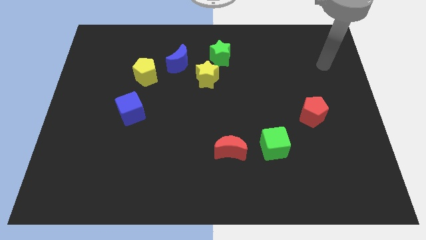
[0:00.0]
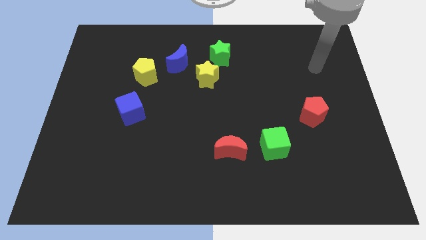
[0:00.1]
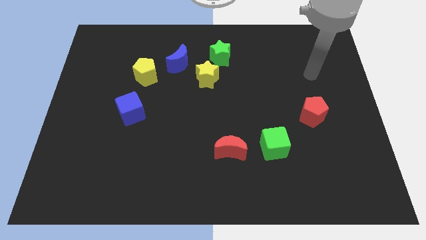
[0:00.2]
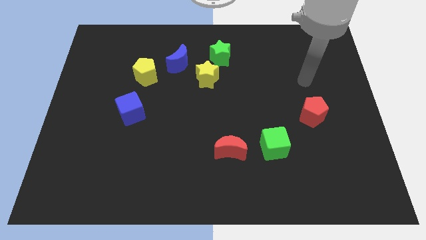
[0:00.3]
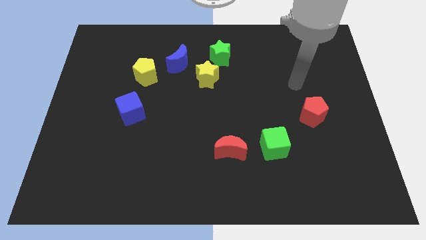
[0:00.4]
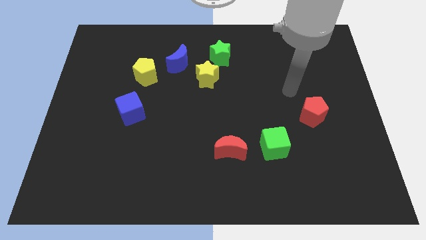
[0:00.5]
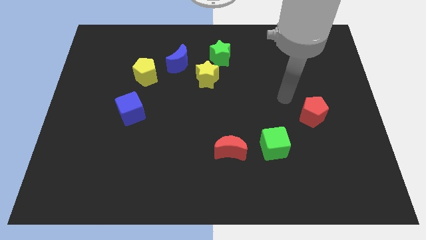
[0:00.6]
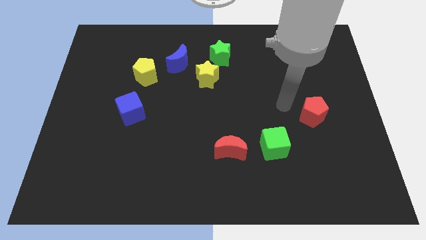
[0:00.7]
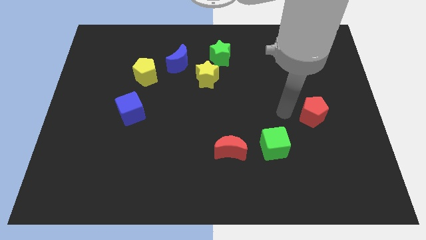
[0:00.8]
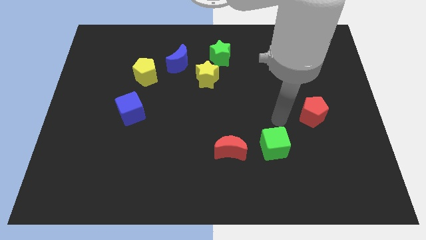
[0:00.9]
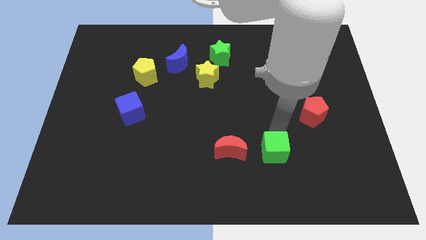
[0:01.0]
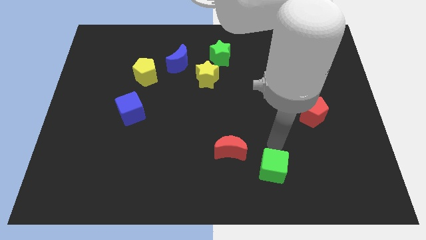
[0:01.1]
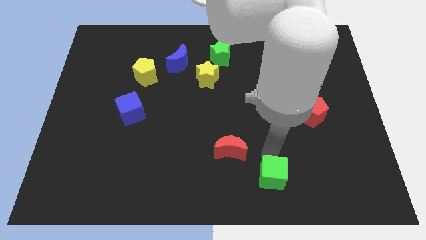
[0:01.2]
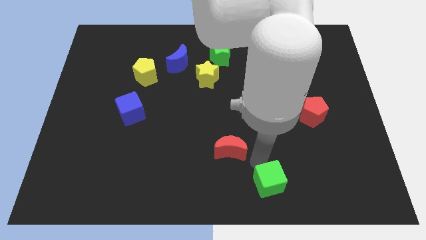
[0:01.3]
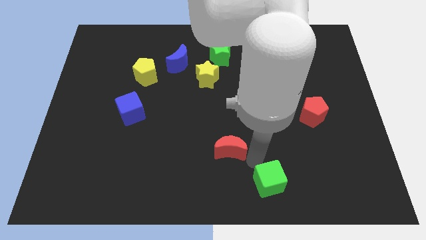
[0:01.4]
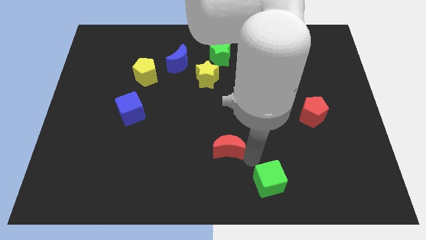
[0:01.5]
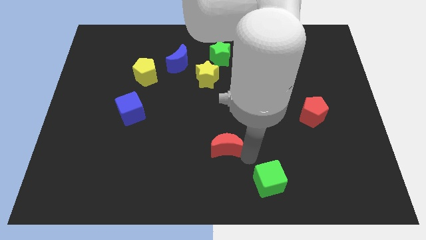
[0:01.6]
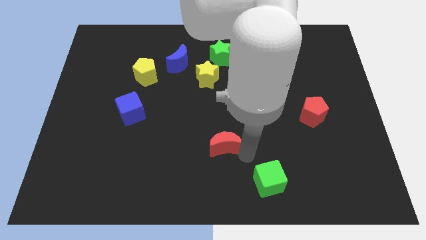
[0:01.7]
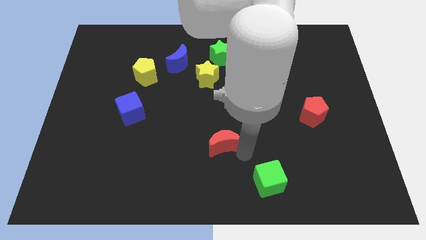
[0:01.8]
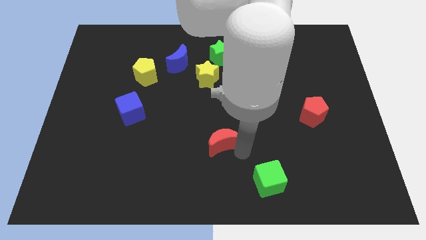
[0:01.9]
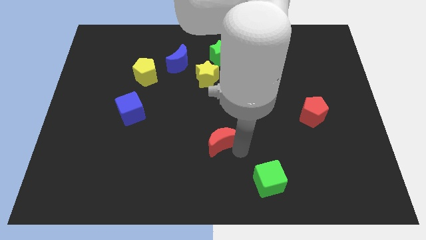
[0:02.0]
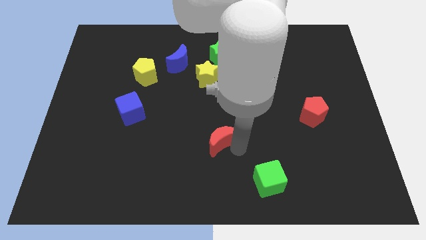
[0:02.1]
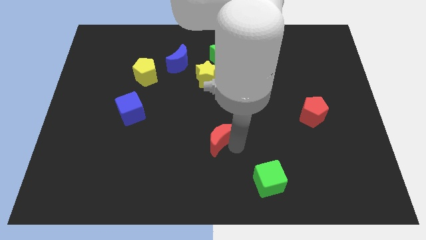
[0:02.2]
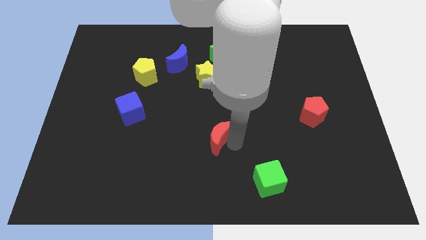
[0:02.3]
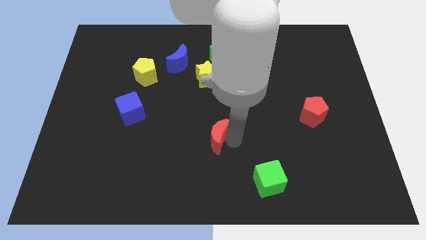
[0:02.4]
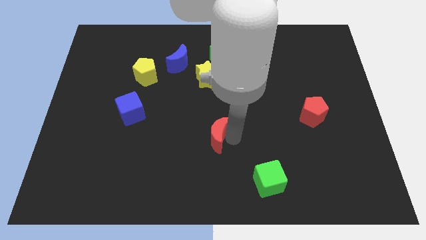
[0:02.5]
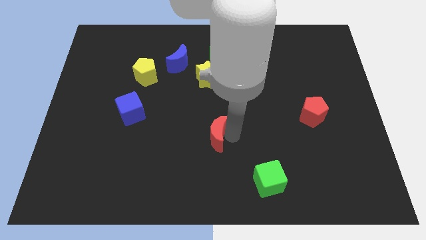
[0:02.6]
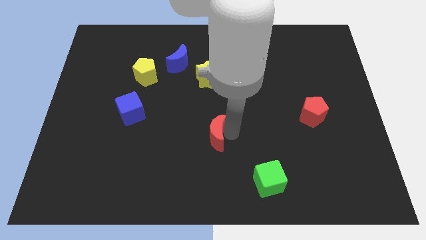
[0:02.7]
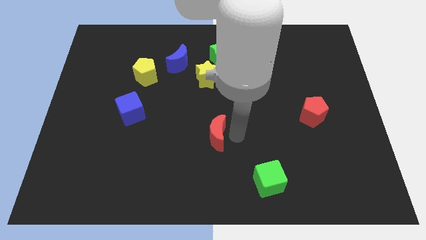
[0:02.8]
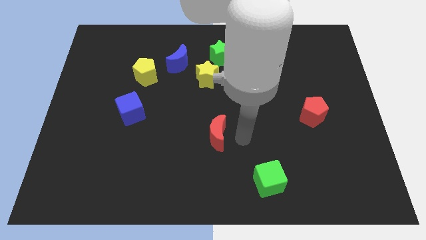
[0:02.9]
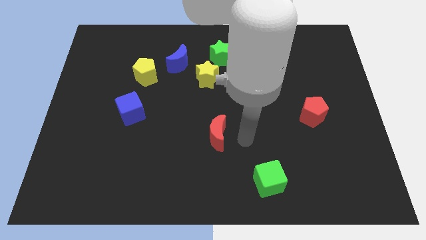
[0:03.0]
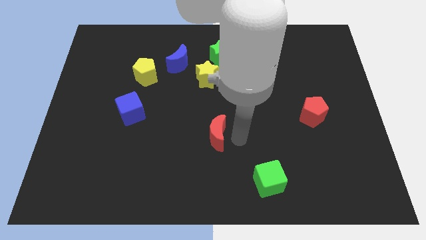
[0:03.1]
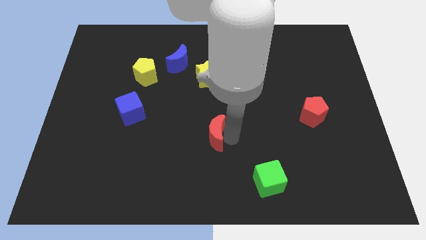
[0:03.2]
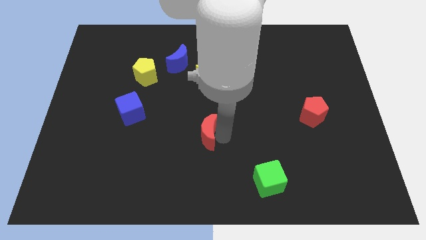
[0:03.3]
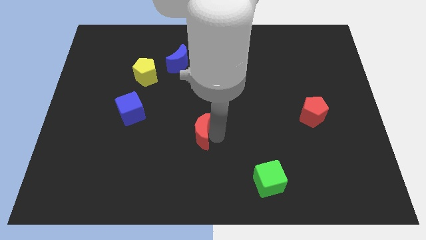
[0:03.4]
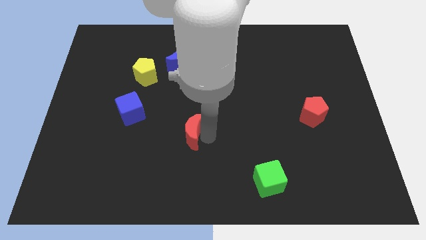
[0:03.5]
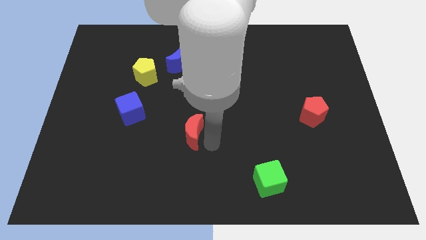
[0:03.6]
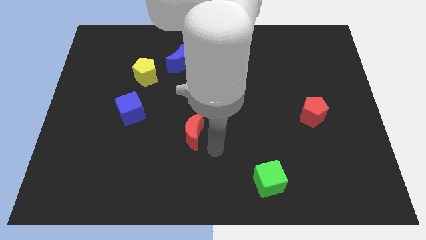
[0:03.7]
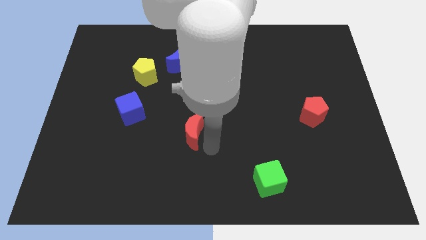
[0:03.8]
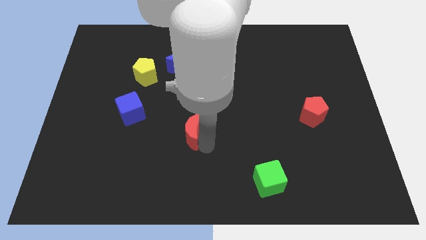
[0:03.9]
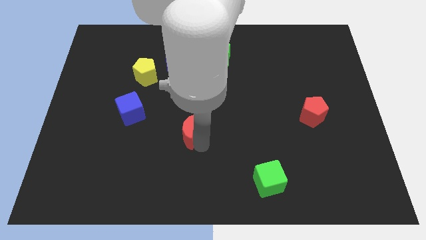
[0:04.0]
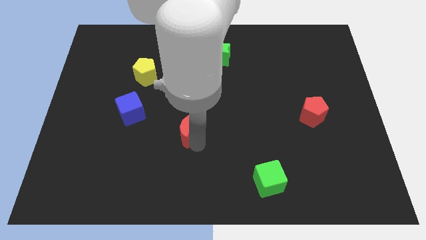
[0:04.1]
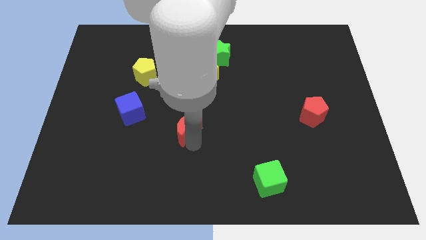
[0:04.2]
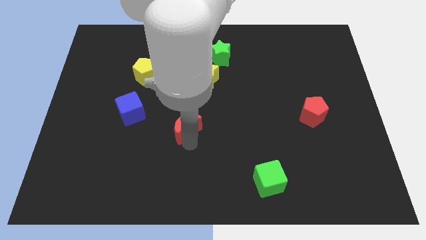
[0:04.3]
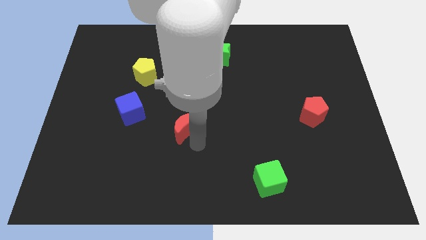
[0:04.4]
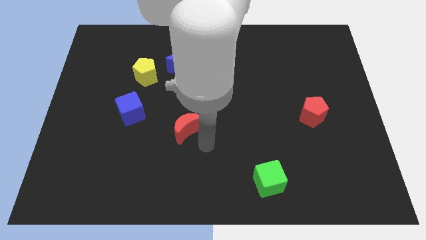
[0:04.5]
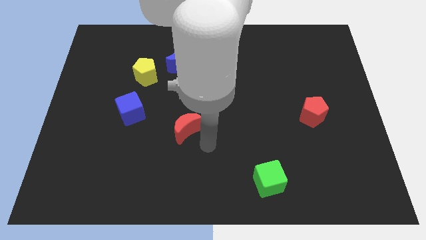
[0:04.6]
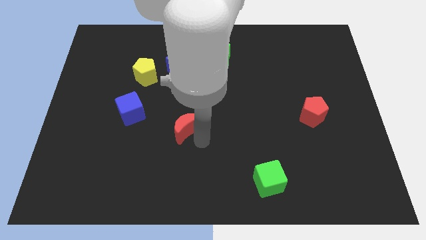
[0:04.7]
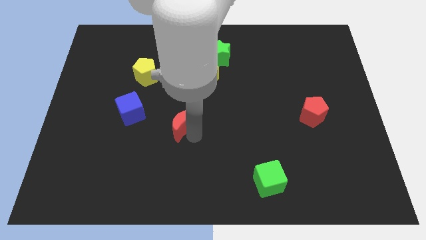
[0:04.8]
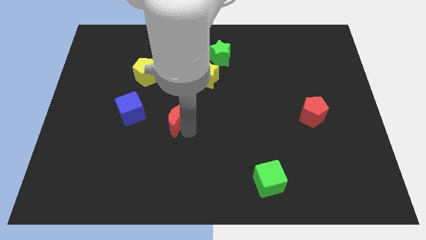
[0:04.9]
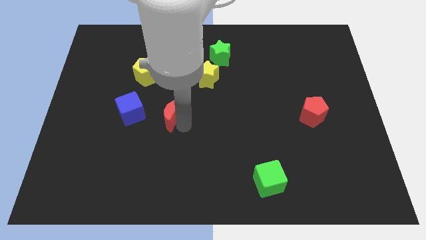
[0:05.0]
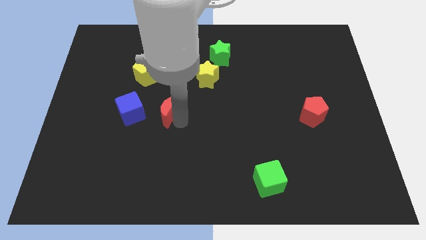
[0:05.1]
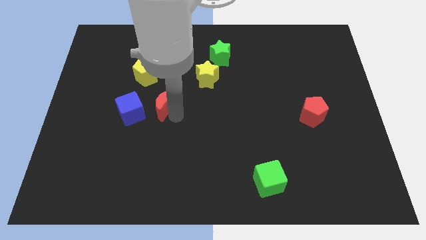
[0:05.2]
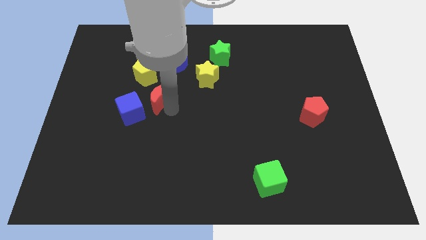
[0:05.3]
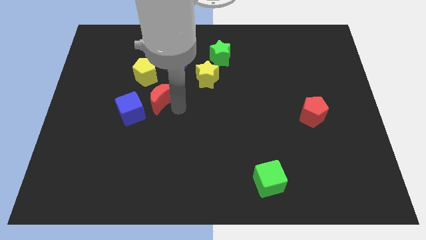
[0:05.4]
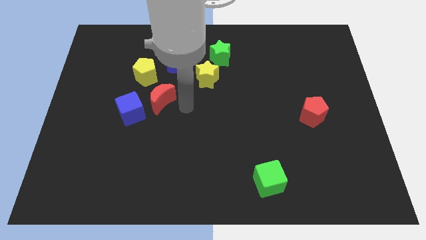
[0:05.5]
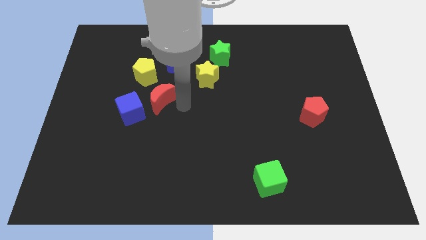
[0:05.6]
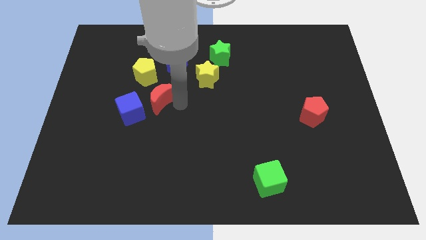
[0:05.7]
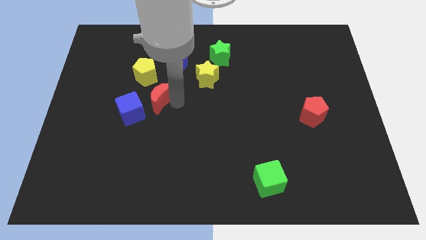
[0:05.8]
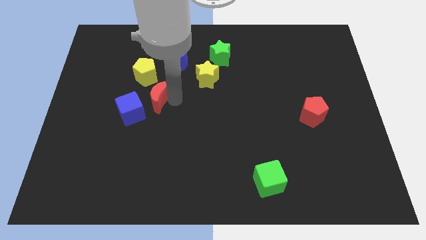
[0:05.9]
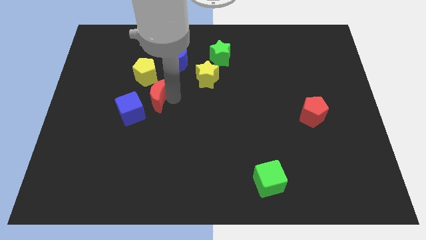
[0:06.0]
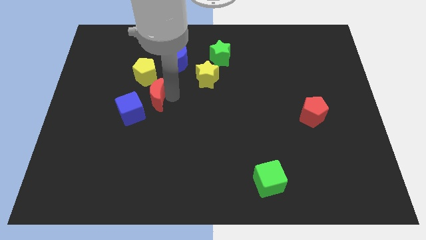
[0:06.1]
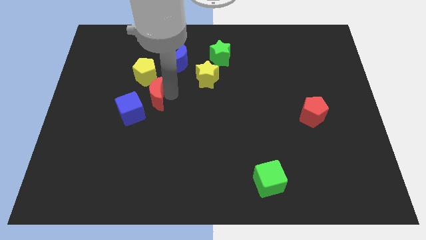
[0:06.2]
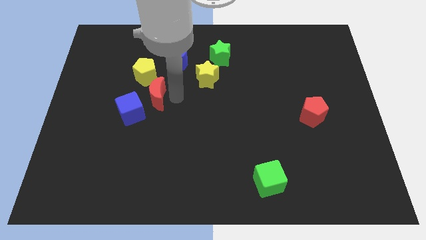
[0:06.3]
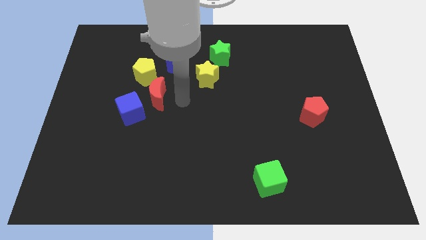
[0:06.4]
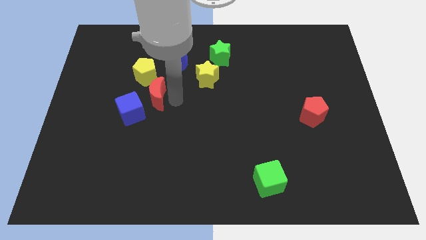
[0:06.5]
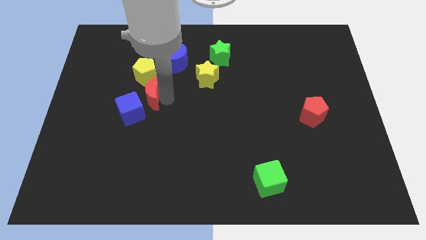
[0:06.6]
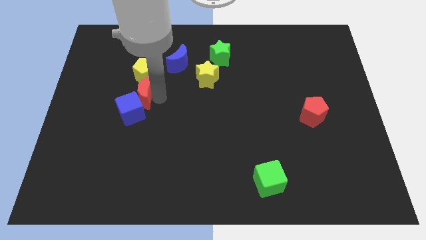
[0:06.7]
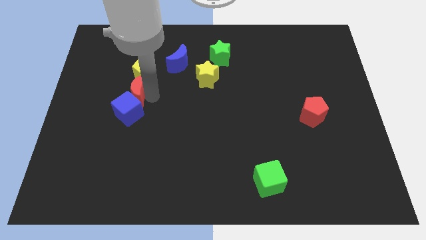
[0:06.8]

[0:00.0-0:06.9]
move the red moon to the bottom left of the yellow pentagon
